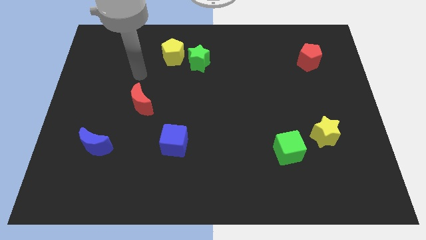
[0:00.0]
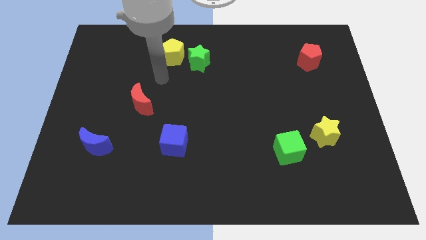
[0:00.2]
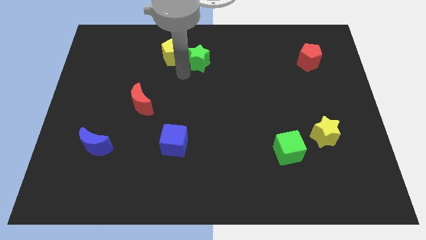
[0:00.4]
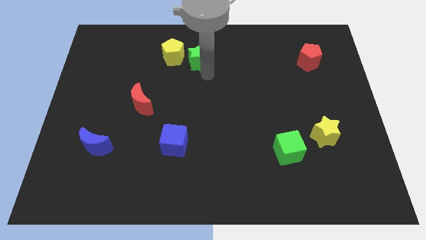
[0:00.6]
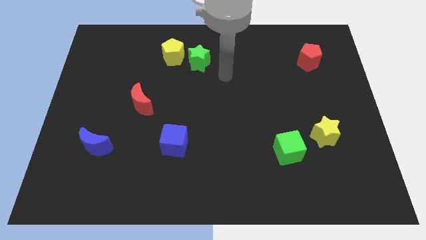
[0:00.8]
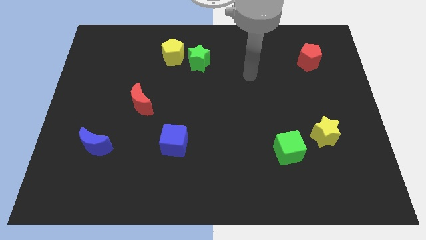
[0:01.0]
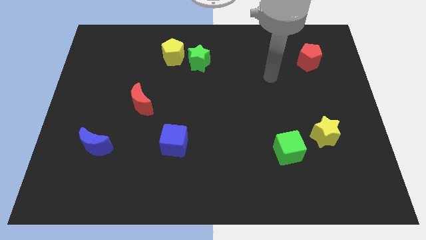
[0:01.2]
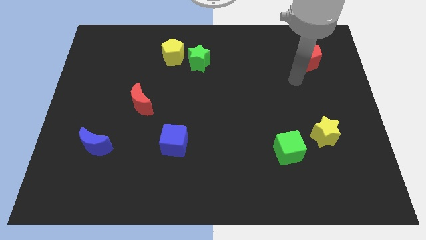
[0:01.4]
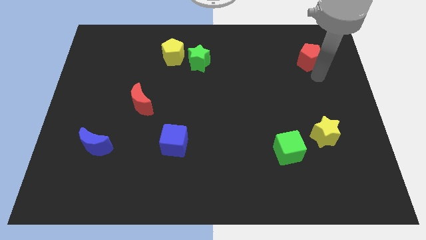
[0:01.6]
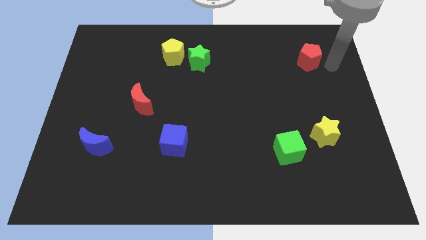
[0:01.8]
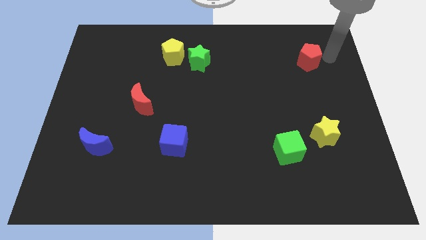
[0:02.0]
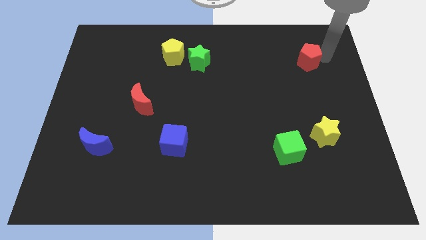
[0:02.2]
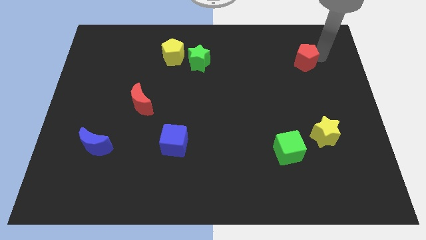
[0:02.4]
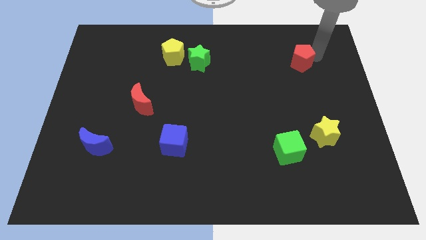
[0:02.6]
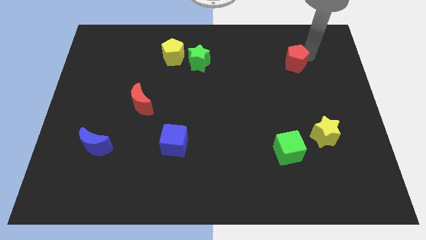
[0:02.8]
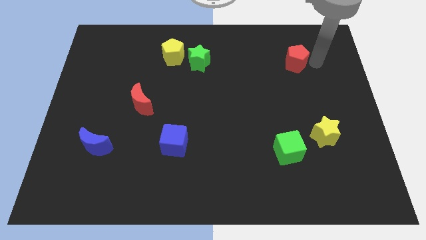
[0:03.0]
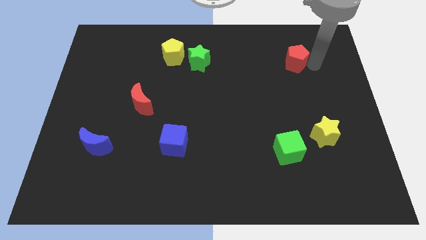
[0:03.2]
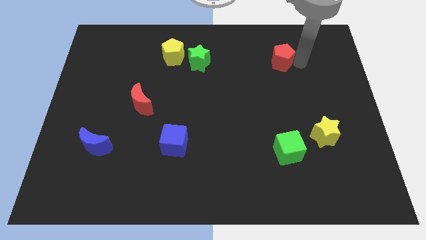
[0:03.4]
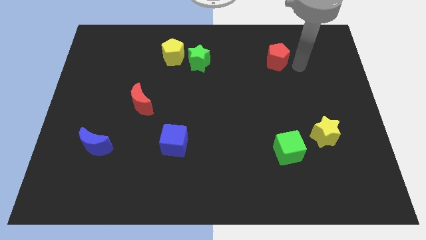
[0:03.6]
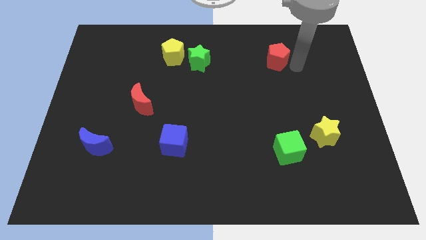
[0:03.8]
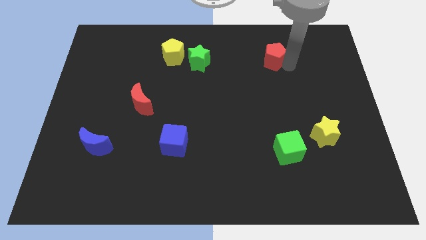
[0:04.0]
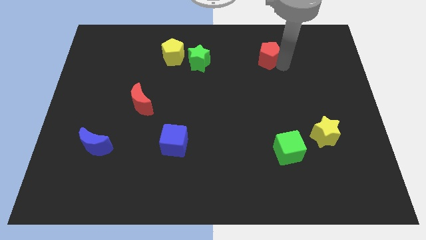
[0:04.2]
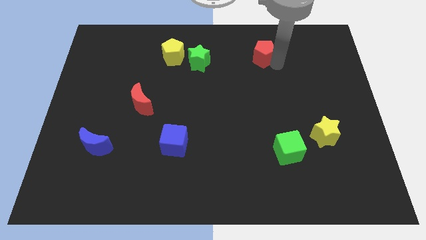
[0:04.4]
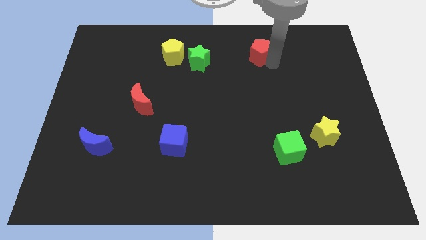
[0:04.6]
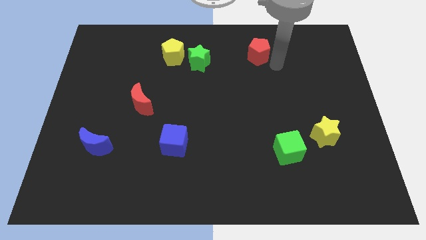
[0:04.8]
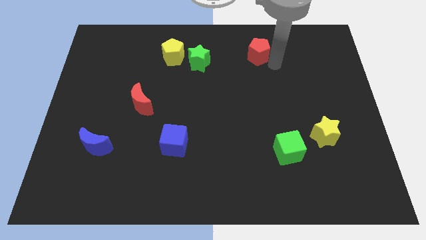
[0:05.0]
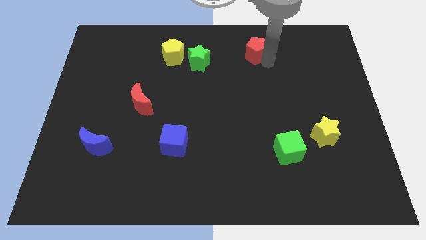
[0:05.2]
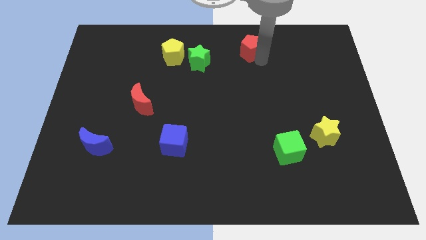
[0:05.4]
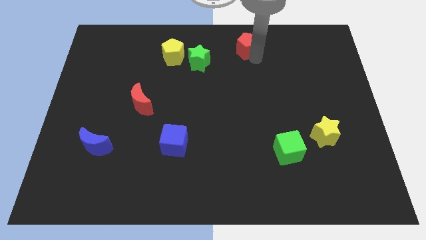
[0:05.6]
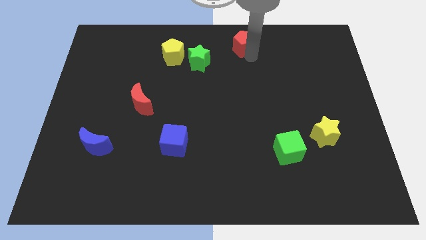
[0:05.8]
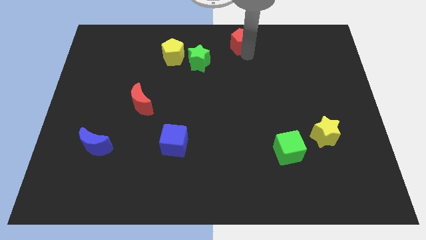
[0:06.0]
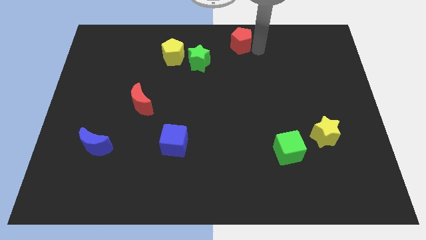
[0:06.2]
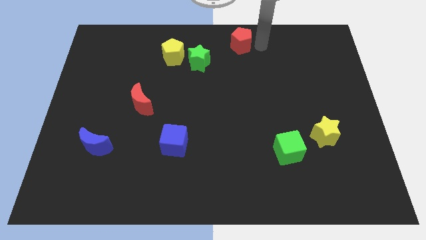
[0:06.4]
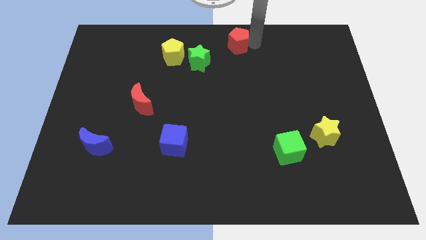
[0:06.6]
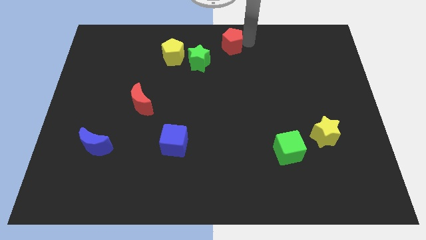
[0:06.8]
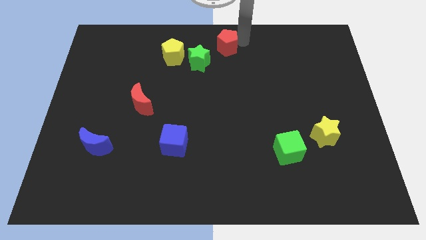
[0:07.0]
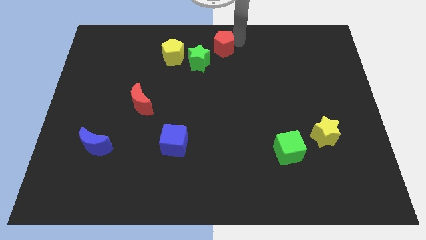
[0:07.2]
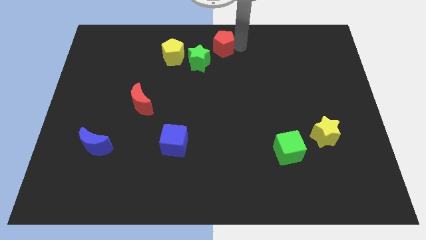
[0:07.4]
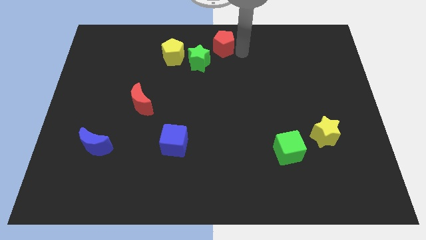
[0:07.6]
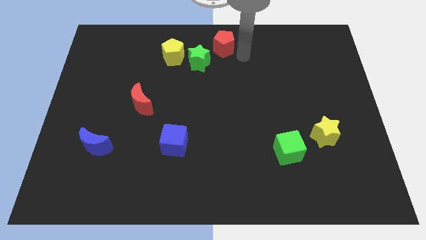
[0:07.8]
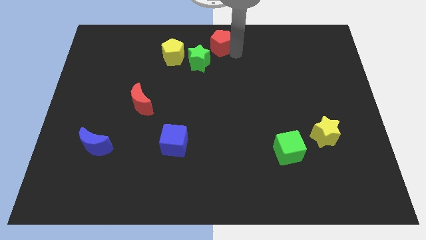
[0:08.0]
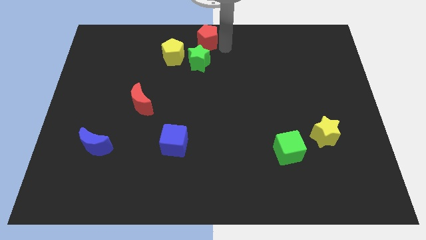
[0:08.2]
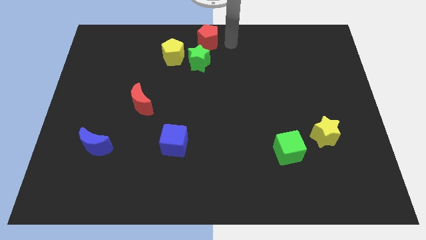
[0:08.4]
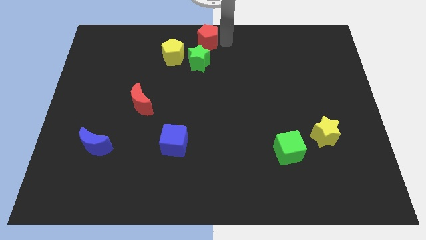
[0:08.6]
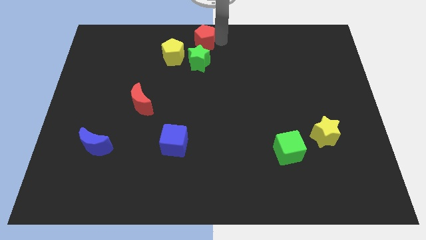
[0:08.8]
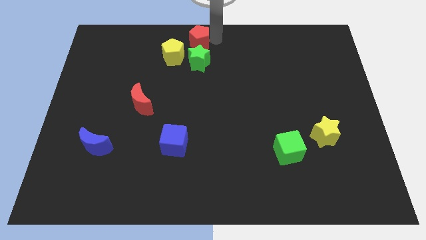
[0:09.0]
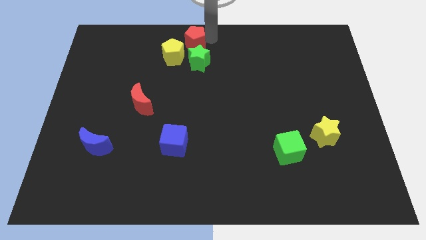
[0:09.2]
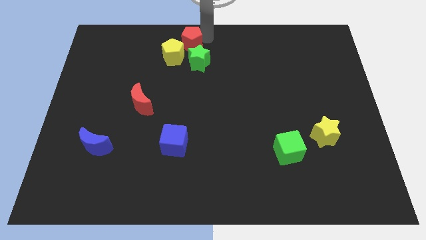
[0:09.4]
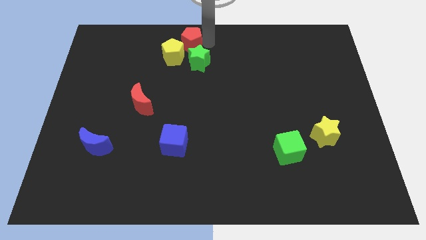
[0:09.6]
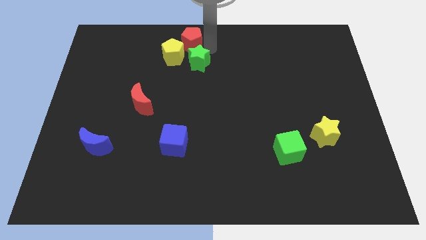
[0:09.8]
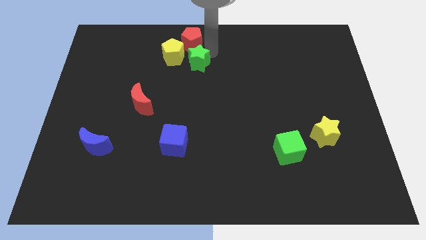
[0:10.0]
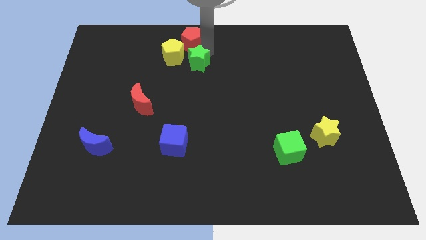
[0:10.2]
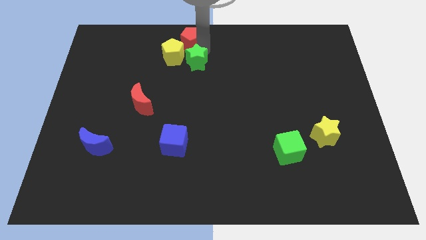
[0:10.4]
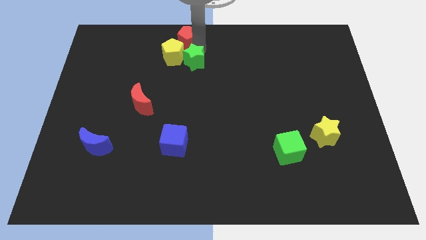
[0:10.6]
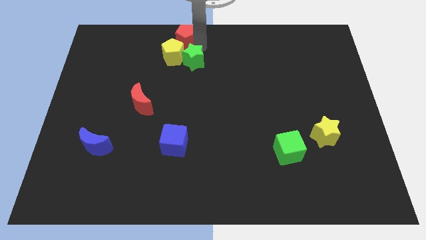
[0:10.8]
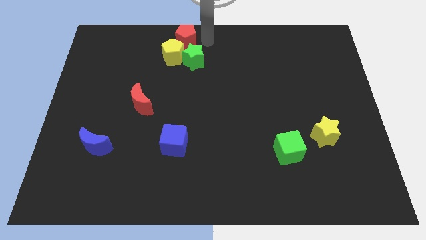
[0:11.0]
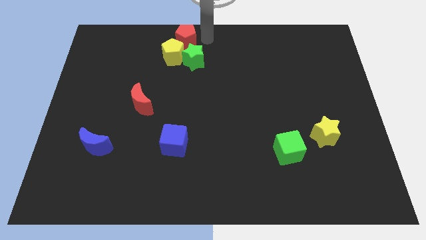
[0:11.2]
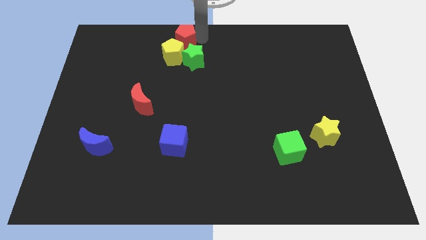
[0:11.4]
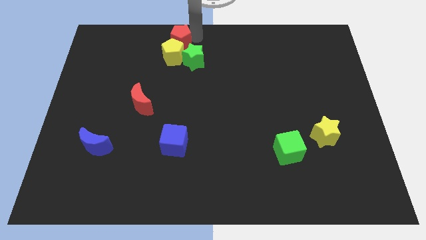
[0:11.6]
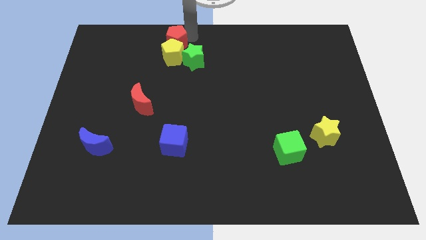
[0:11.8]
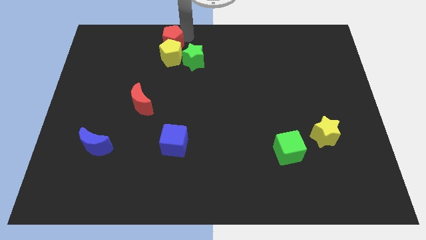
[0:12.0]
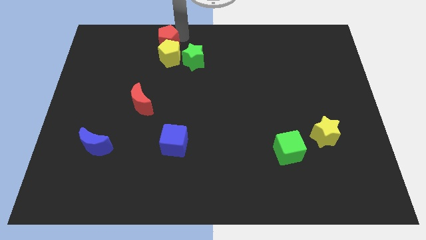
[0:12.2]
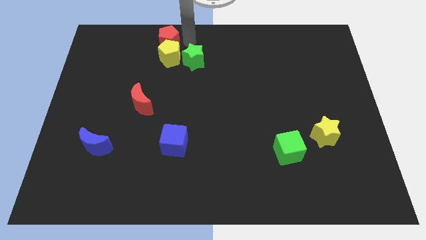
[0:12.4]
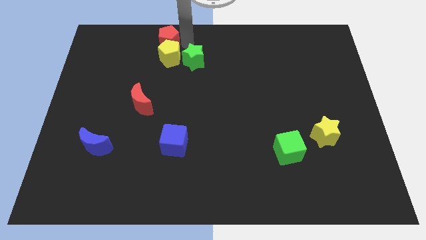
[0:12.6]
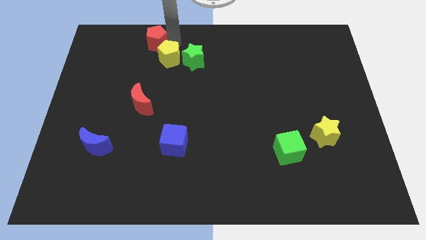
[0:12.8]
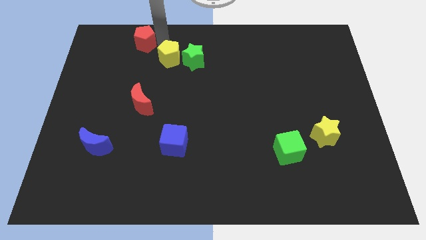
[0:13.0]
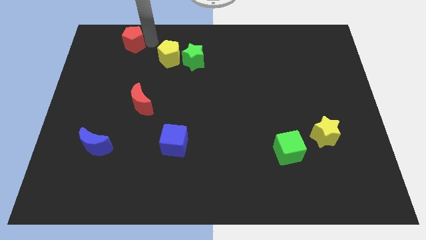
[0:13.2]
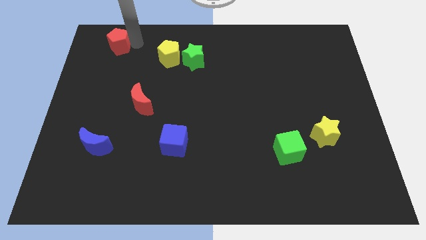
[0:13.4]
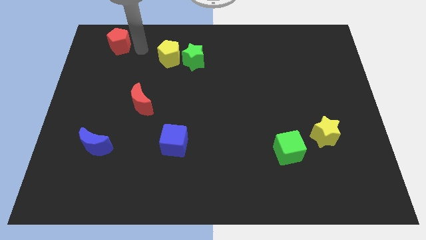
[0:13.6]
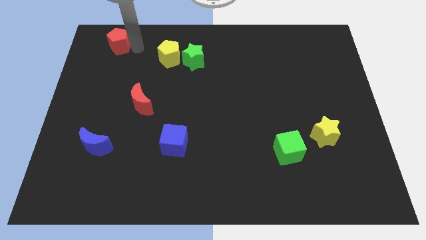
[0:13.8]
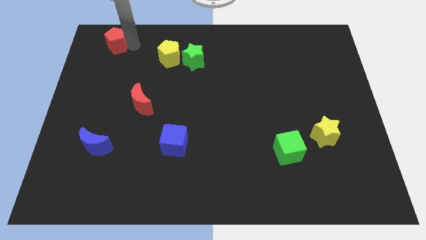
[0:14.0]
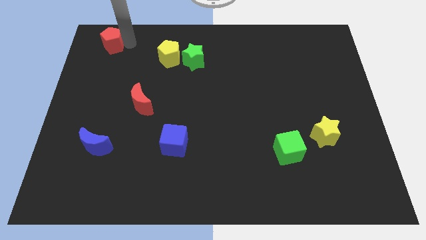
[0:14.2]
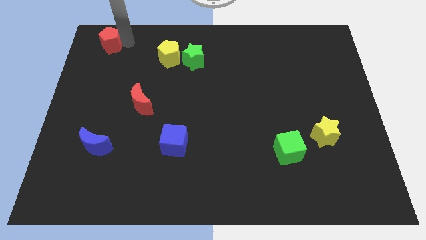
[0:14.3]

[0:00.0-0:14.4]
push the red pentagon to the upper left corner
